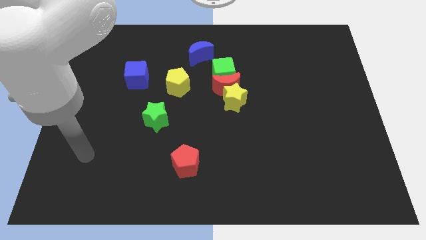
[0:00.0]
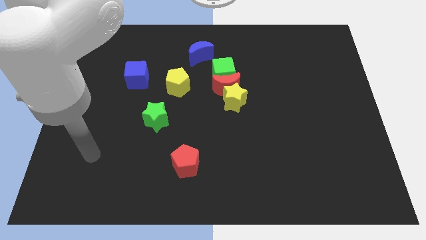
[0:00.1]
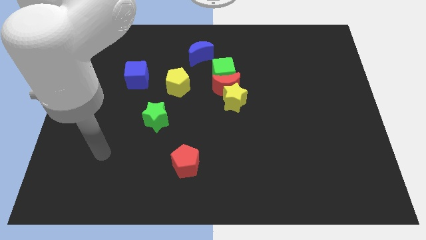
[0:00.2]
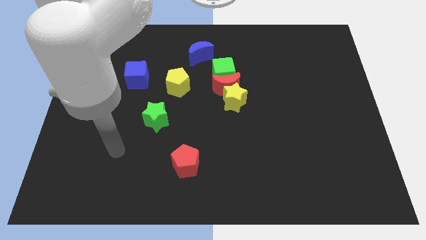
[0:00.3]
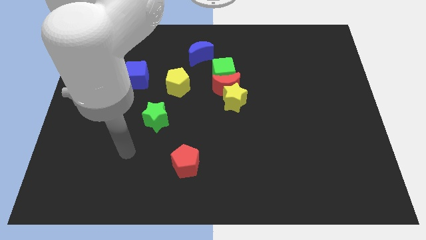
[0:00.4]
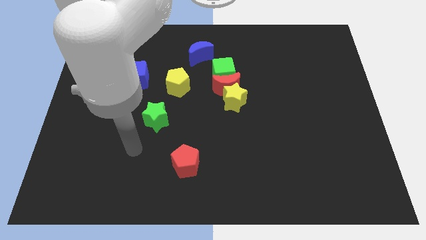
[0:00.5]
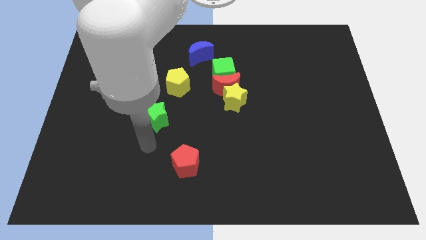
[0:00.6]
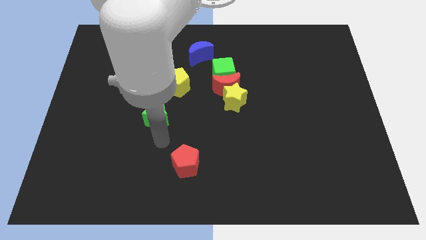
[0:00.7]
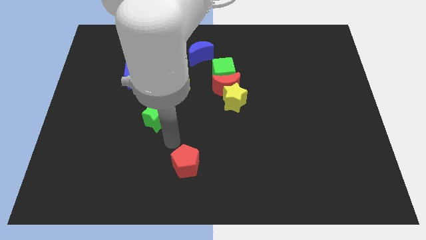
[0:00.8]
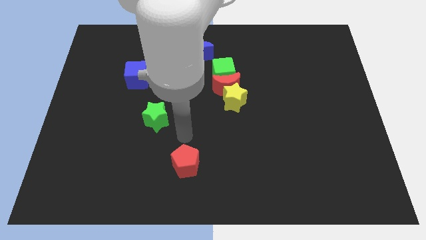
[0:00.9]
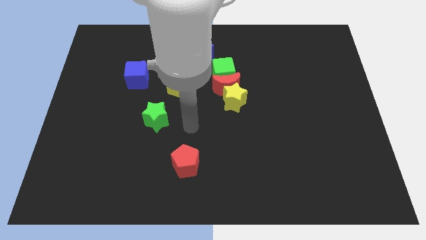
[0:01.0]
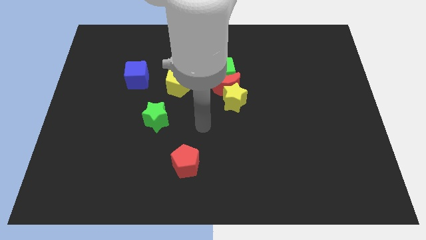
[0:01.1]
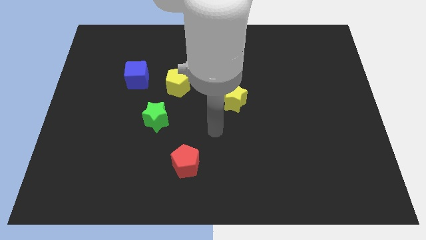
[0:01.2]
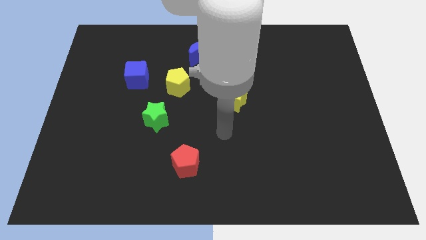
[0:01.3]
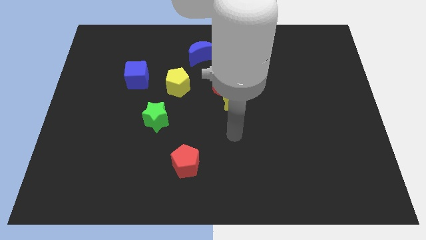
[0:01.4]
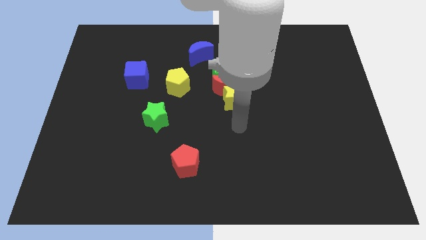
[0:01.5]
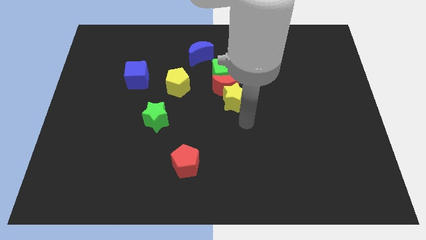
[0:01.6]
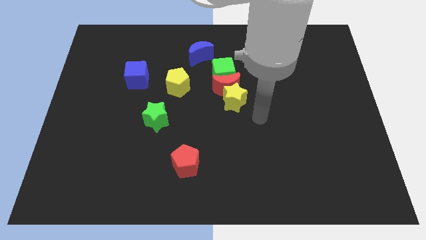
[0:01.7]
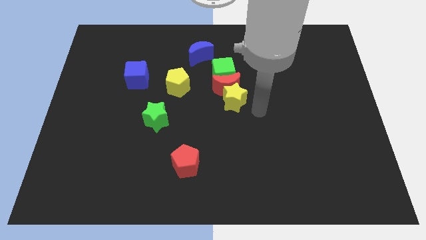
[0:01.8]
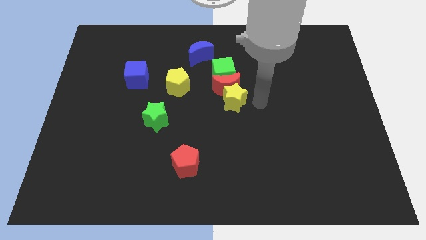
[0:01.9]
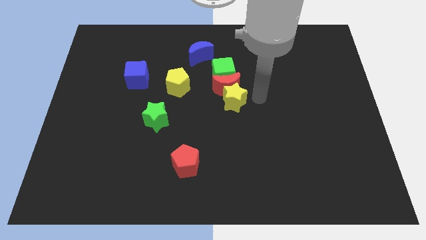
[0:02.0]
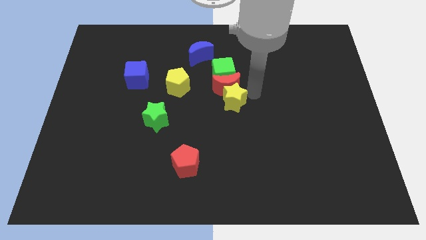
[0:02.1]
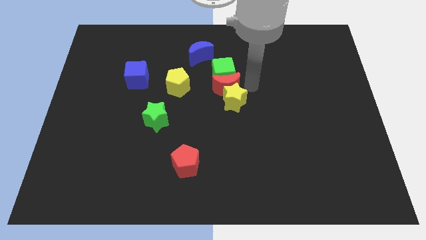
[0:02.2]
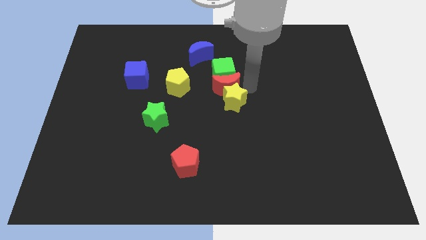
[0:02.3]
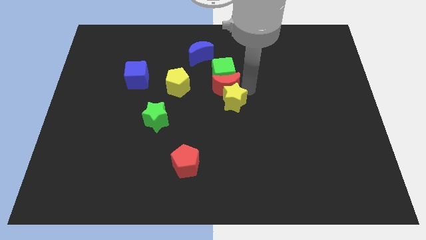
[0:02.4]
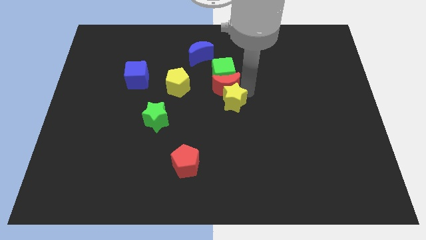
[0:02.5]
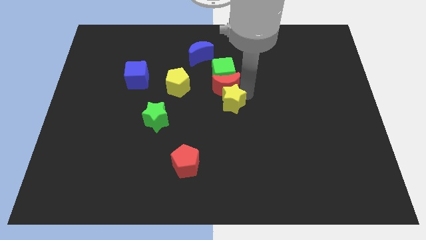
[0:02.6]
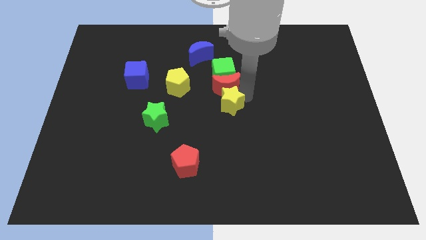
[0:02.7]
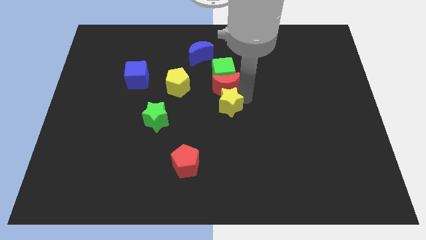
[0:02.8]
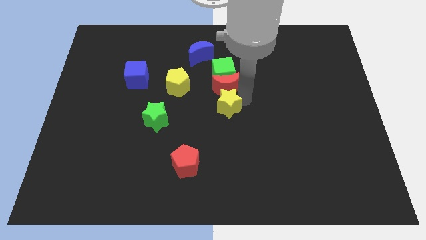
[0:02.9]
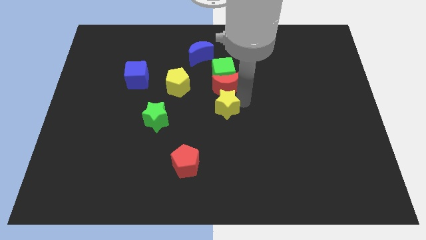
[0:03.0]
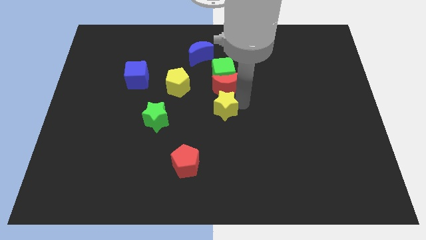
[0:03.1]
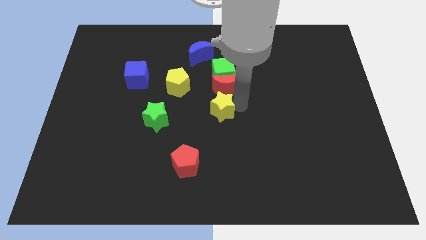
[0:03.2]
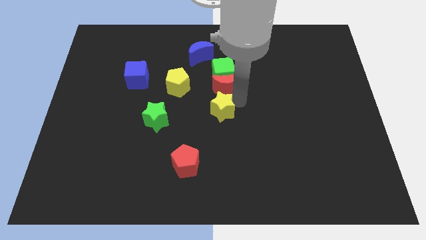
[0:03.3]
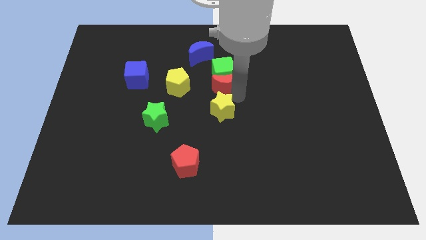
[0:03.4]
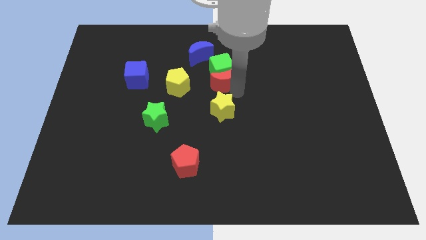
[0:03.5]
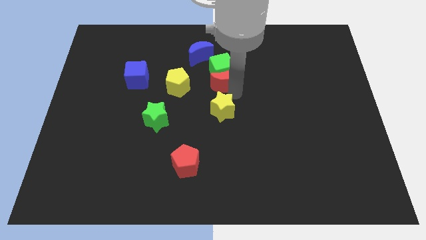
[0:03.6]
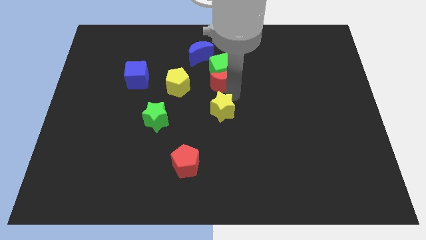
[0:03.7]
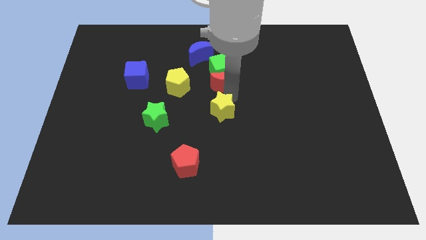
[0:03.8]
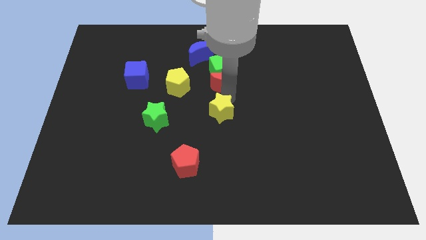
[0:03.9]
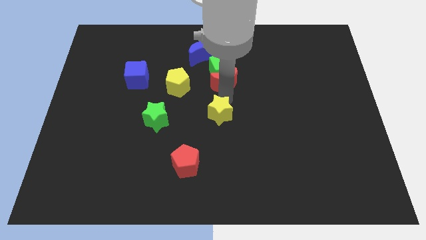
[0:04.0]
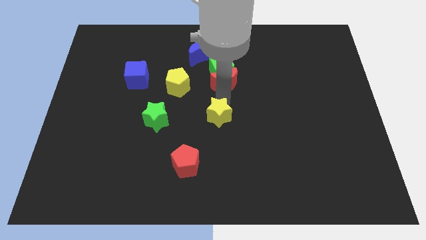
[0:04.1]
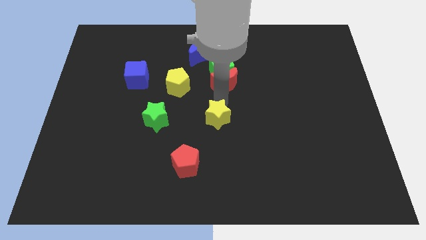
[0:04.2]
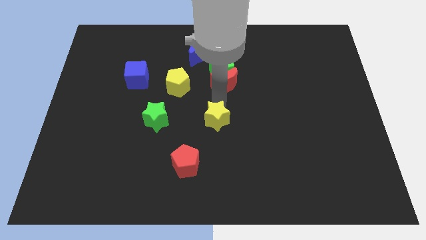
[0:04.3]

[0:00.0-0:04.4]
push the yellow star a little diagonally downwards and left

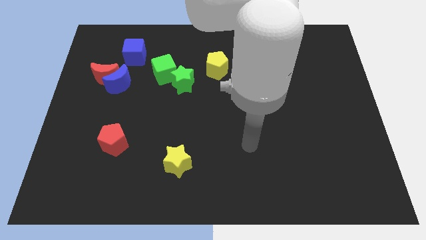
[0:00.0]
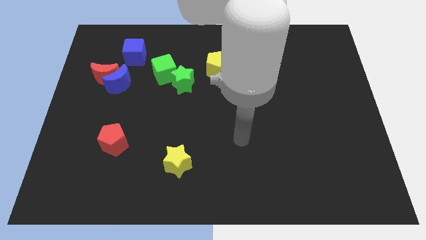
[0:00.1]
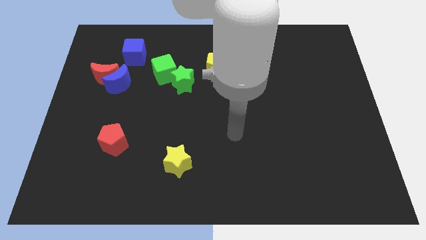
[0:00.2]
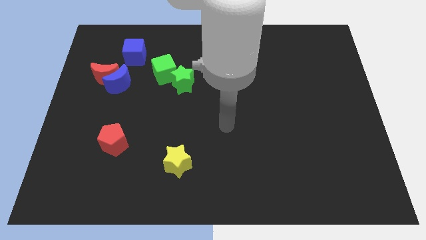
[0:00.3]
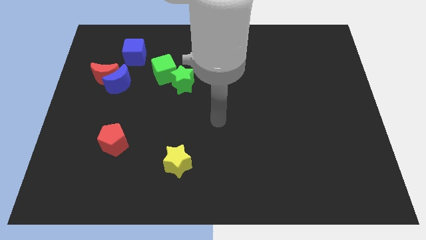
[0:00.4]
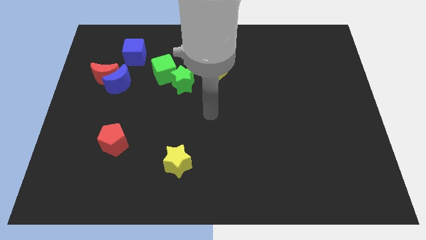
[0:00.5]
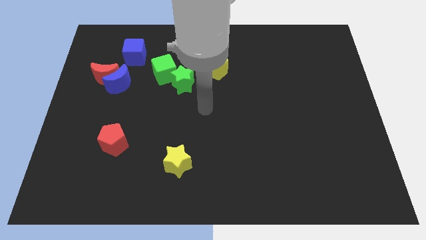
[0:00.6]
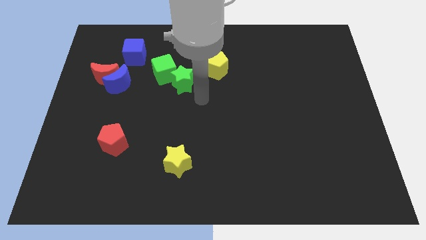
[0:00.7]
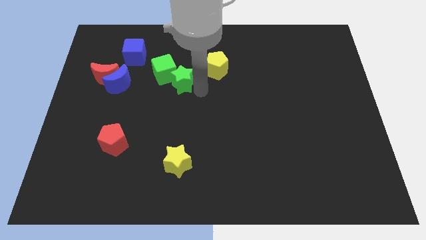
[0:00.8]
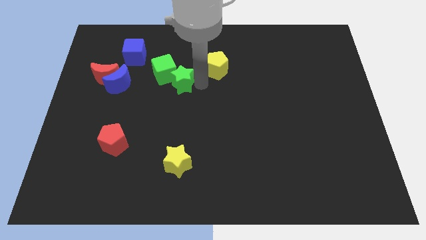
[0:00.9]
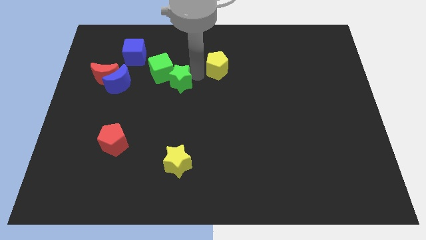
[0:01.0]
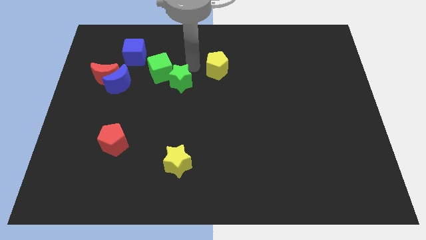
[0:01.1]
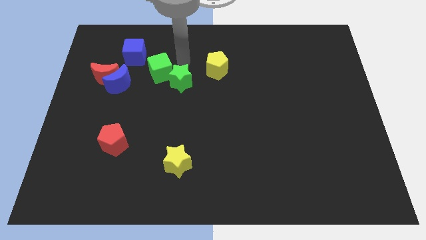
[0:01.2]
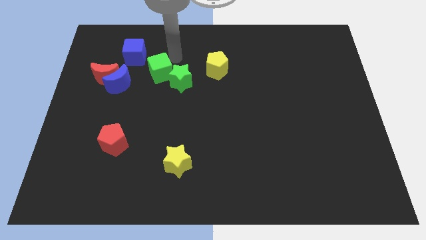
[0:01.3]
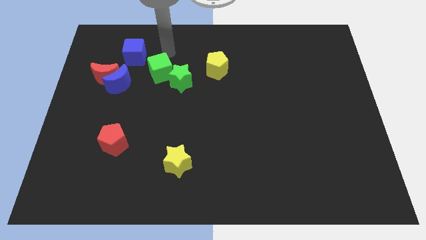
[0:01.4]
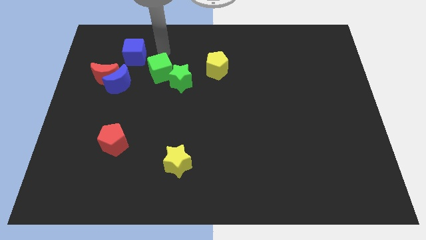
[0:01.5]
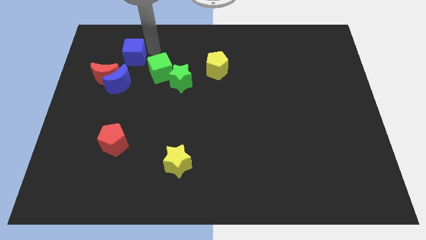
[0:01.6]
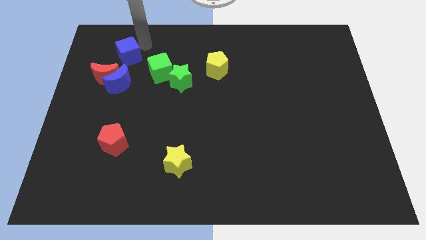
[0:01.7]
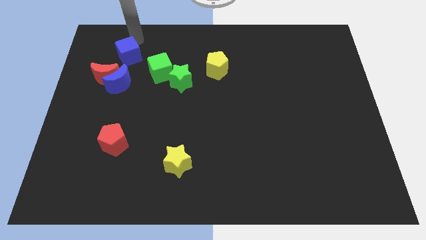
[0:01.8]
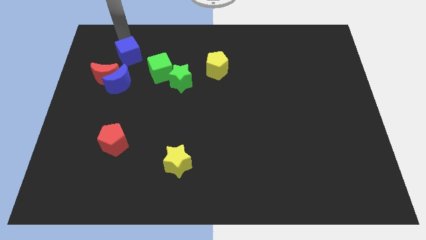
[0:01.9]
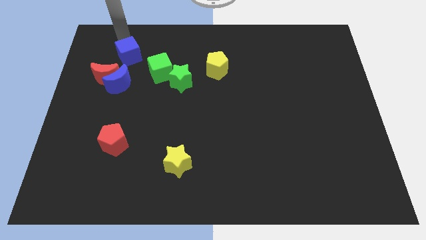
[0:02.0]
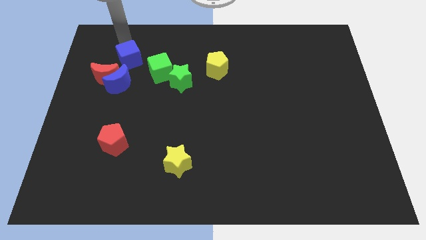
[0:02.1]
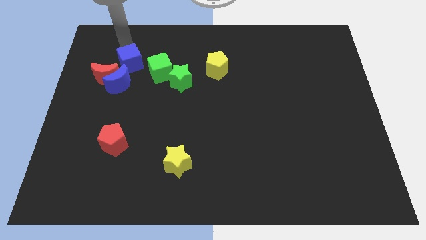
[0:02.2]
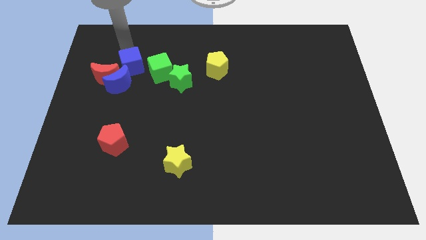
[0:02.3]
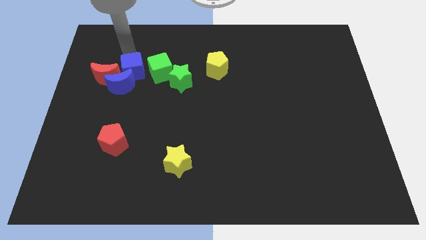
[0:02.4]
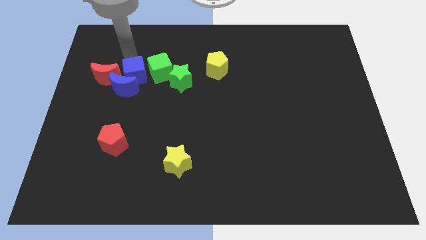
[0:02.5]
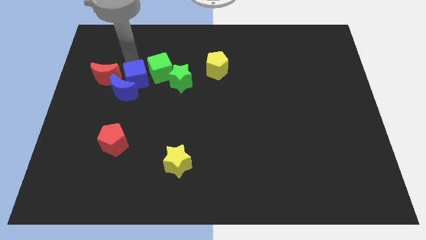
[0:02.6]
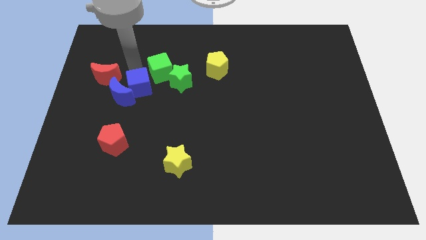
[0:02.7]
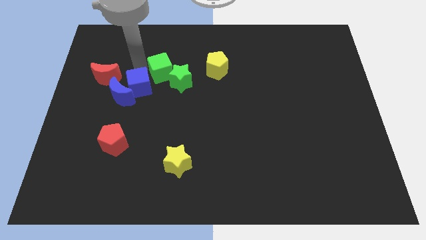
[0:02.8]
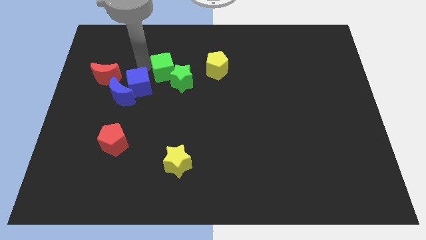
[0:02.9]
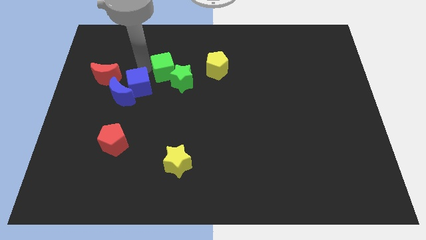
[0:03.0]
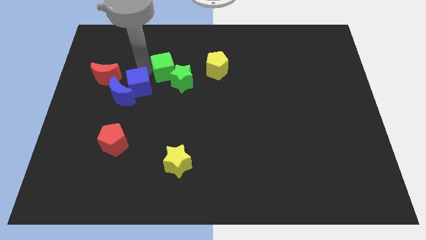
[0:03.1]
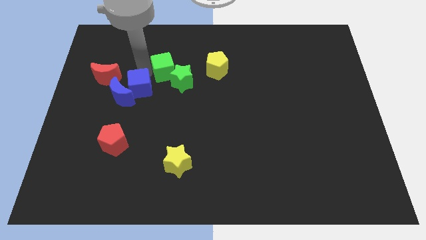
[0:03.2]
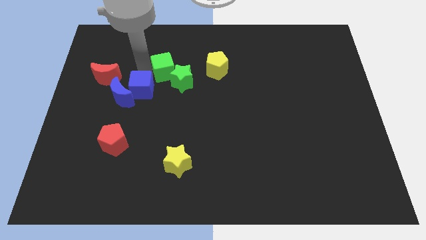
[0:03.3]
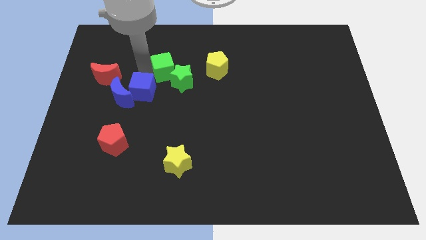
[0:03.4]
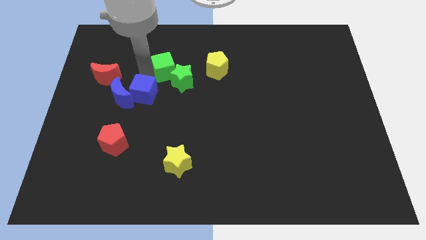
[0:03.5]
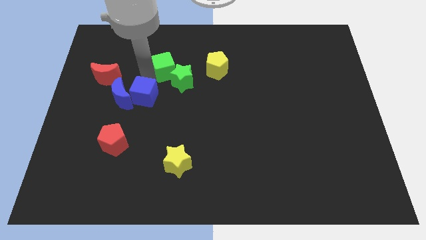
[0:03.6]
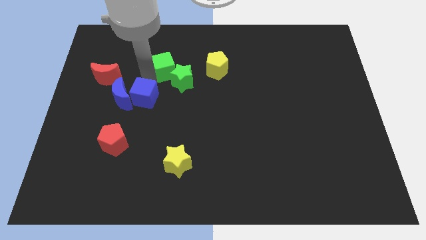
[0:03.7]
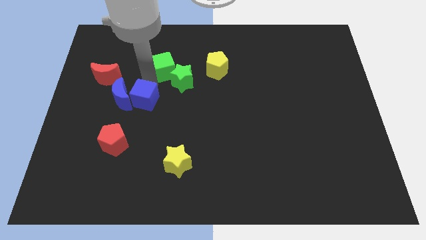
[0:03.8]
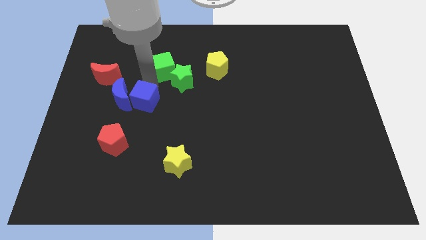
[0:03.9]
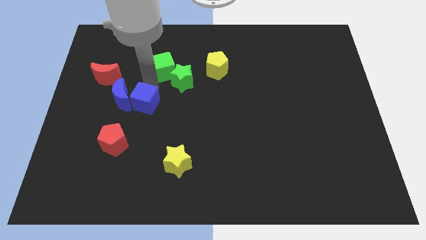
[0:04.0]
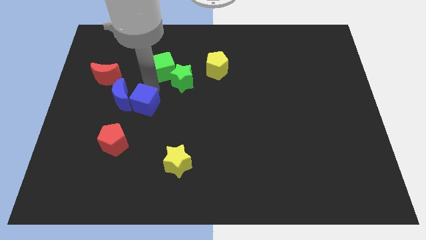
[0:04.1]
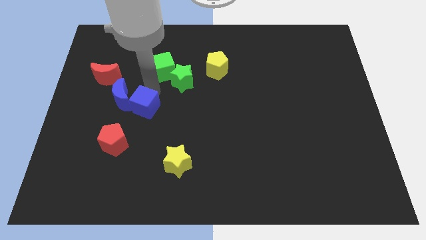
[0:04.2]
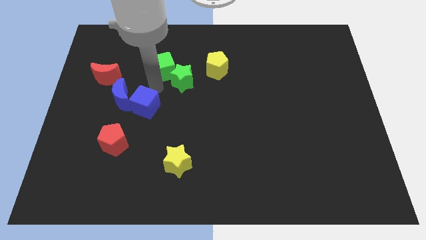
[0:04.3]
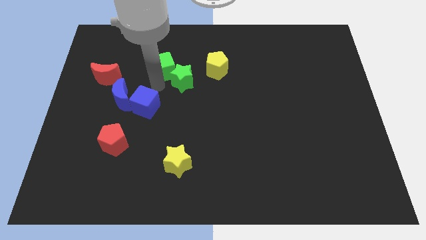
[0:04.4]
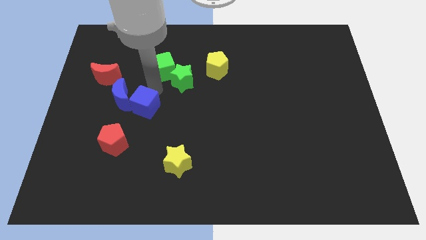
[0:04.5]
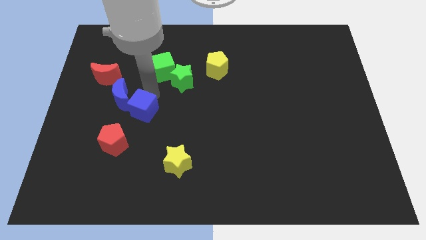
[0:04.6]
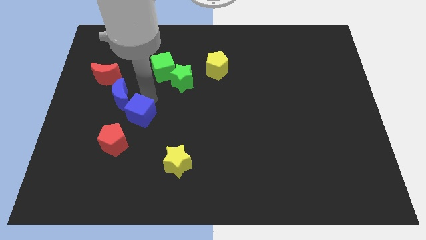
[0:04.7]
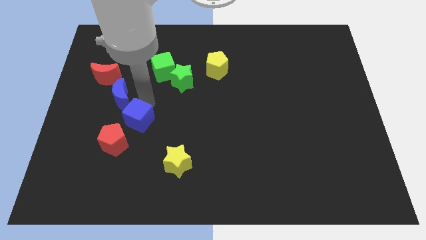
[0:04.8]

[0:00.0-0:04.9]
push the blue cube downwards
